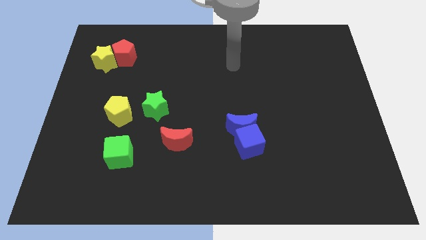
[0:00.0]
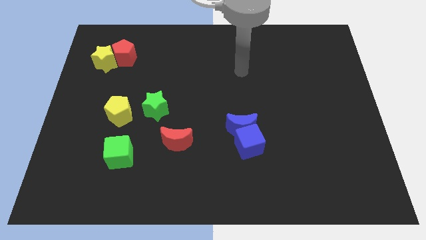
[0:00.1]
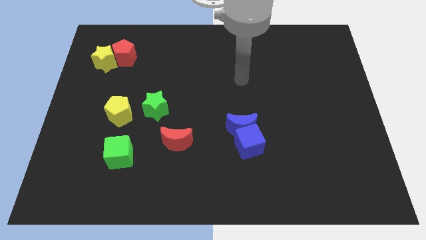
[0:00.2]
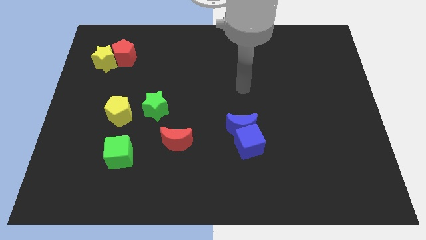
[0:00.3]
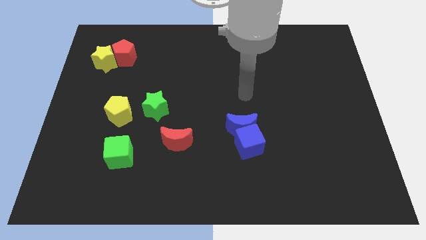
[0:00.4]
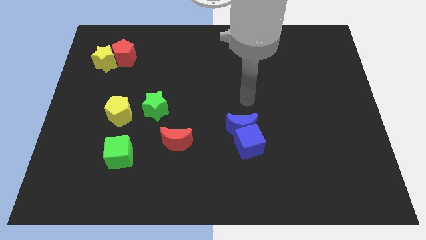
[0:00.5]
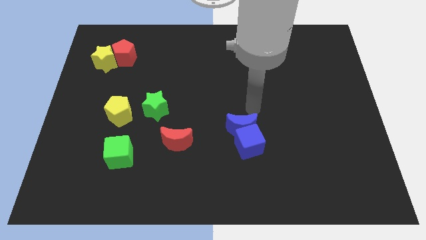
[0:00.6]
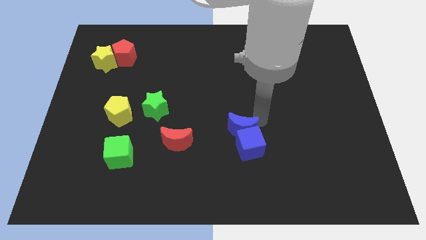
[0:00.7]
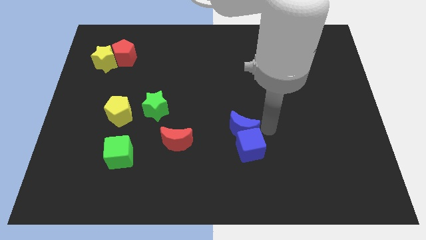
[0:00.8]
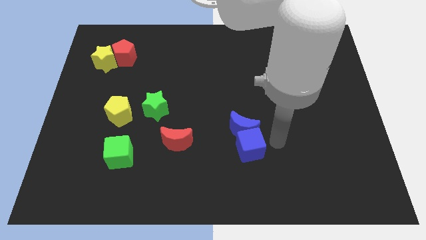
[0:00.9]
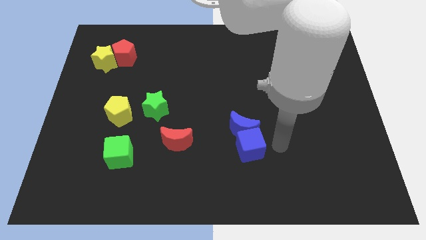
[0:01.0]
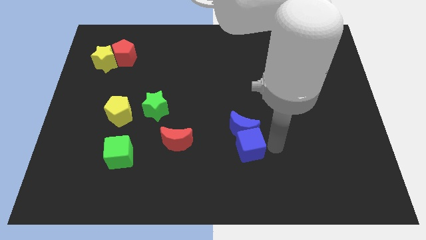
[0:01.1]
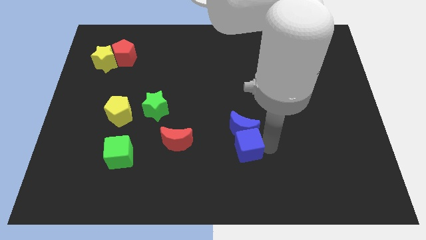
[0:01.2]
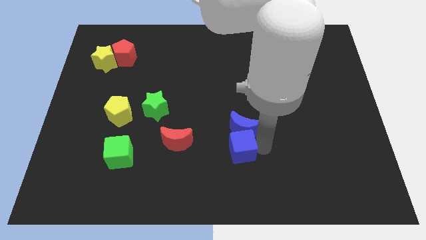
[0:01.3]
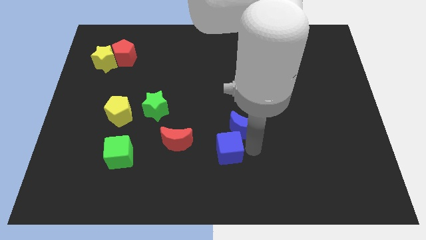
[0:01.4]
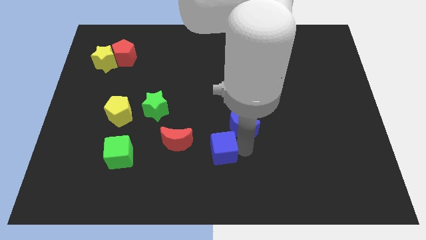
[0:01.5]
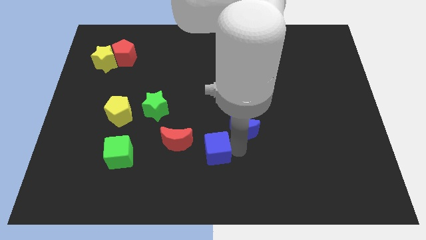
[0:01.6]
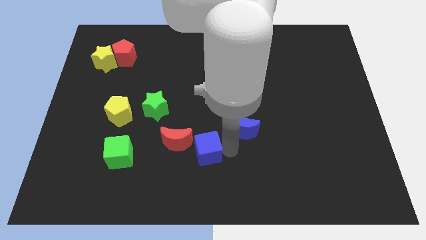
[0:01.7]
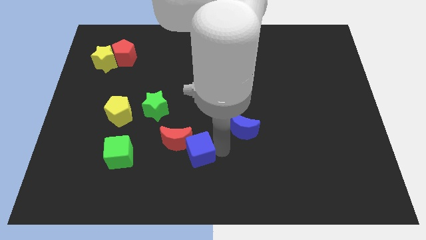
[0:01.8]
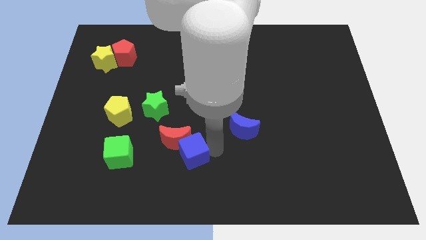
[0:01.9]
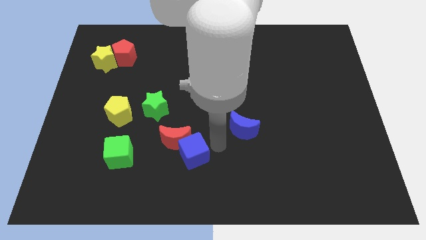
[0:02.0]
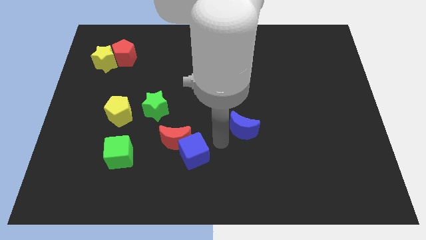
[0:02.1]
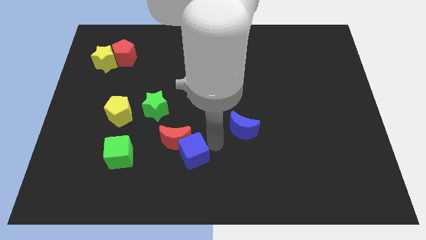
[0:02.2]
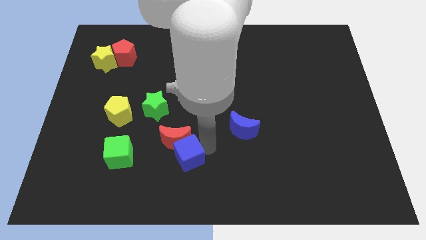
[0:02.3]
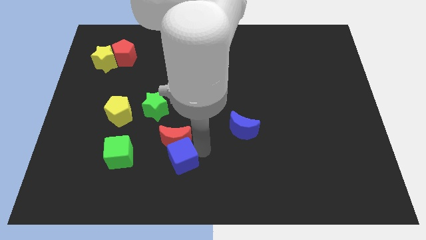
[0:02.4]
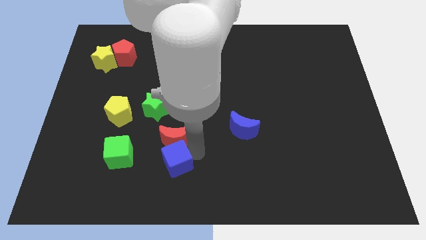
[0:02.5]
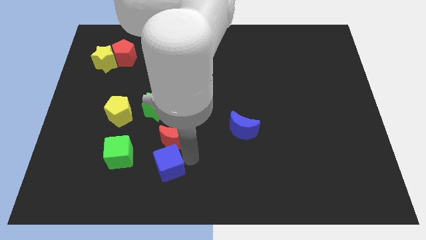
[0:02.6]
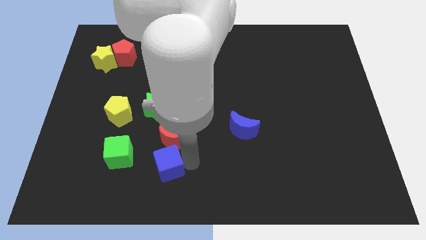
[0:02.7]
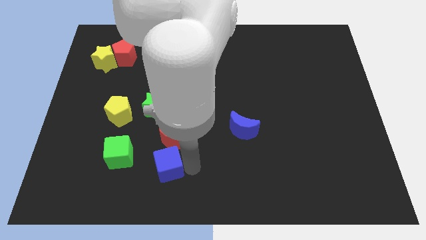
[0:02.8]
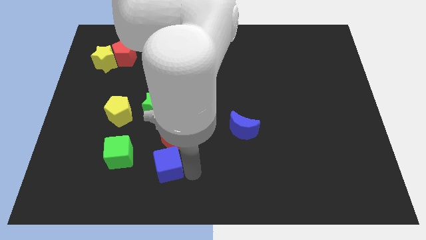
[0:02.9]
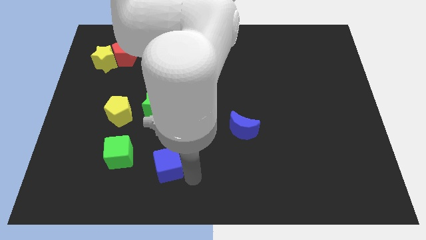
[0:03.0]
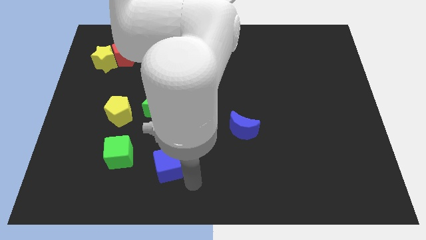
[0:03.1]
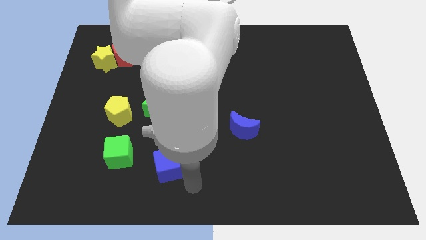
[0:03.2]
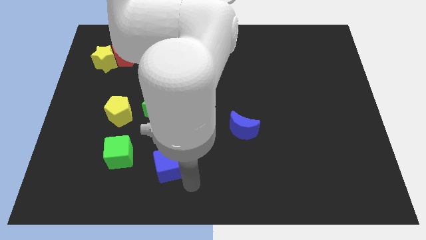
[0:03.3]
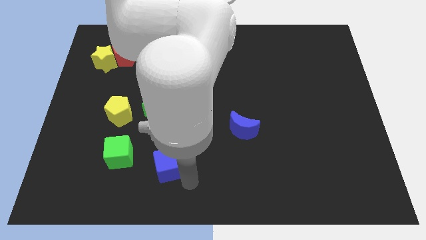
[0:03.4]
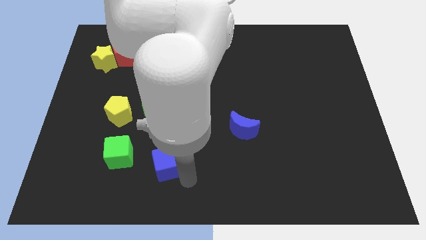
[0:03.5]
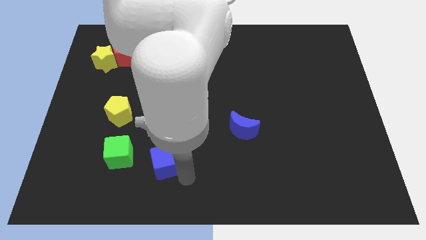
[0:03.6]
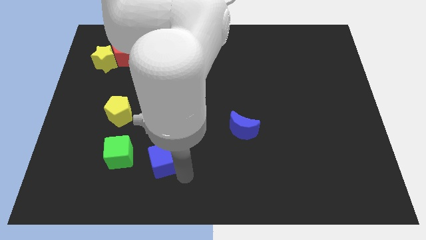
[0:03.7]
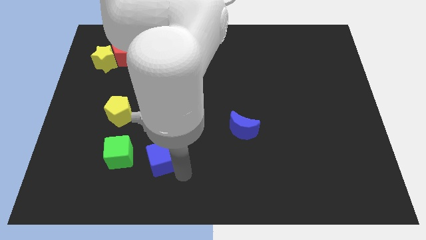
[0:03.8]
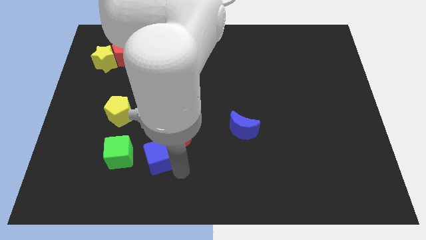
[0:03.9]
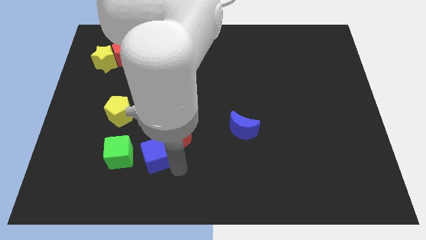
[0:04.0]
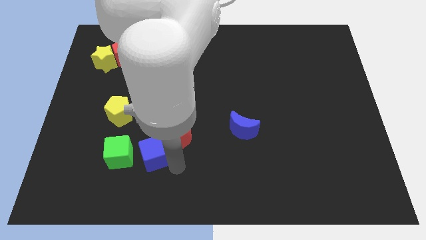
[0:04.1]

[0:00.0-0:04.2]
push the blue cube to the left

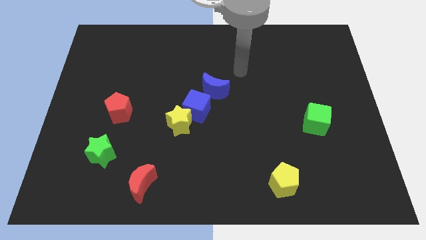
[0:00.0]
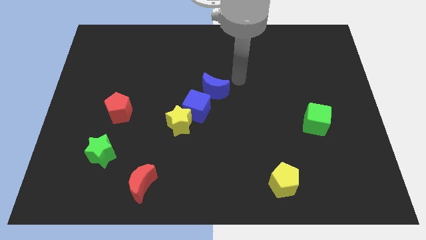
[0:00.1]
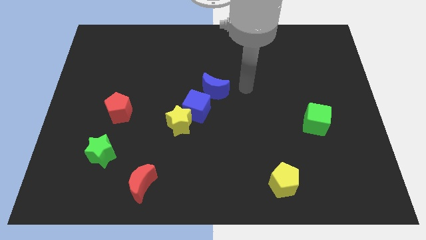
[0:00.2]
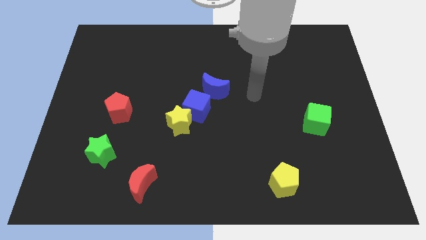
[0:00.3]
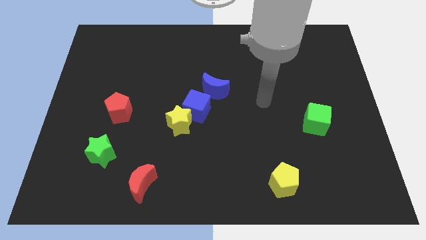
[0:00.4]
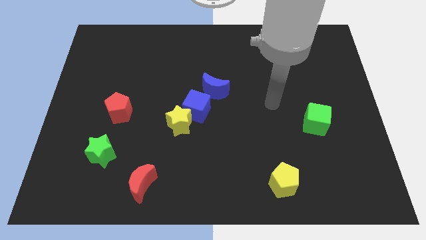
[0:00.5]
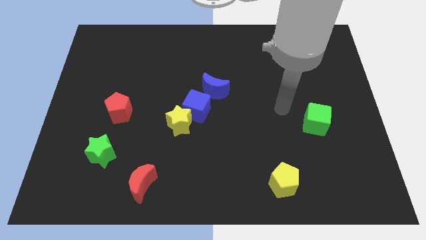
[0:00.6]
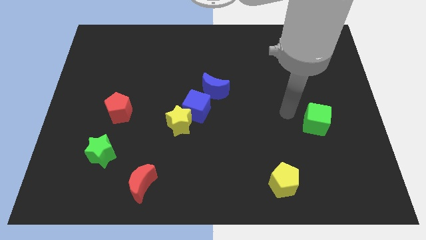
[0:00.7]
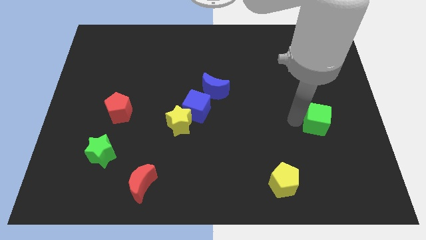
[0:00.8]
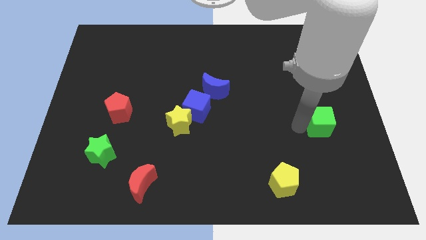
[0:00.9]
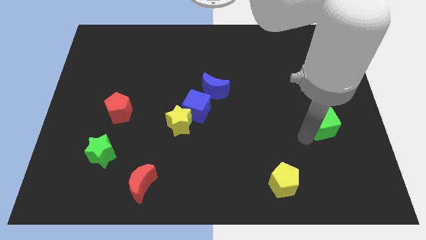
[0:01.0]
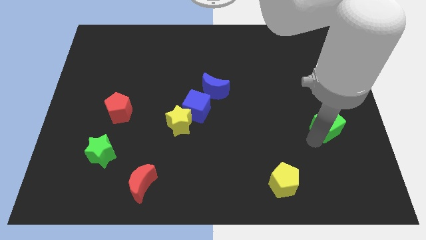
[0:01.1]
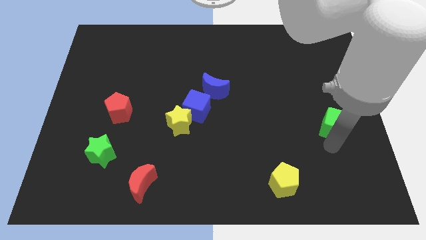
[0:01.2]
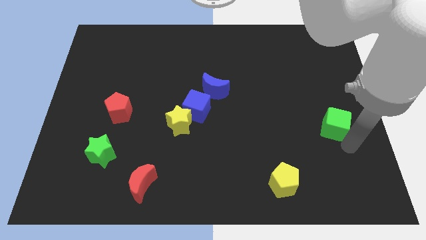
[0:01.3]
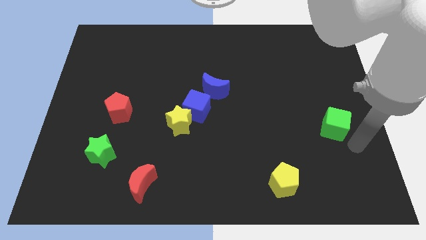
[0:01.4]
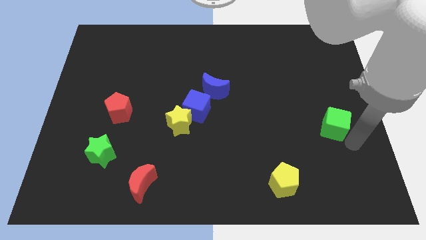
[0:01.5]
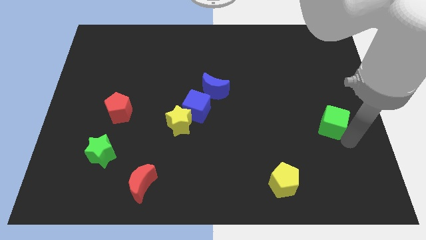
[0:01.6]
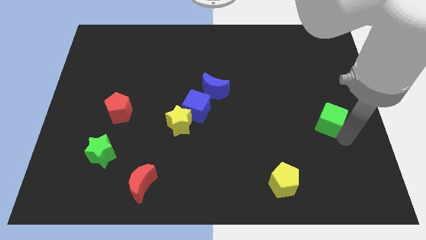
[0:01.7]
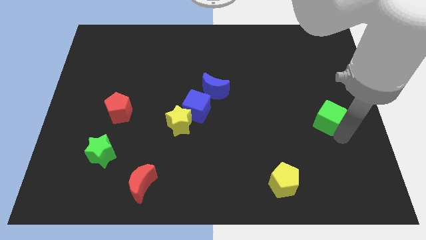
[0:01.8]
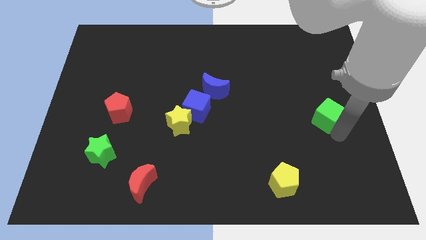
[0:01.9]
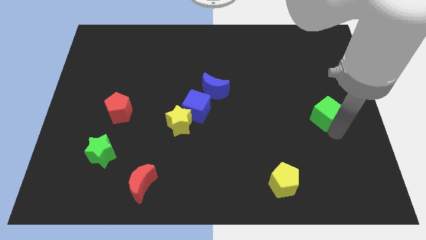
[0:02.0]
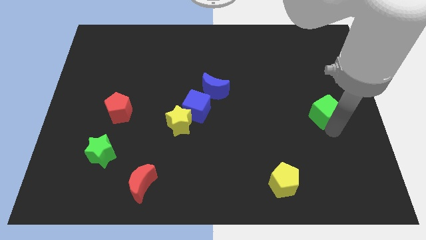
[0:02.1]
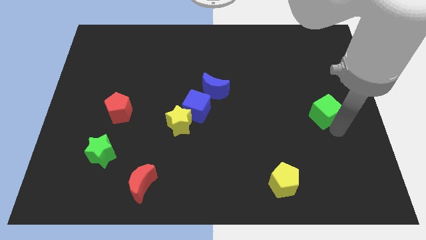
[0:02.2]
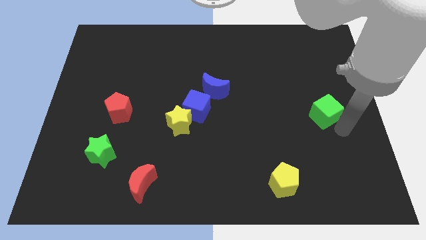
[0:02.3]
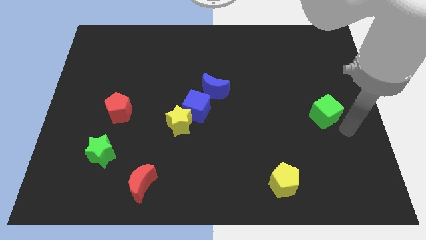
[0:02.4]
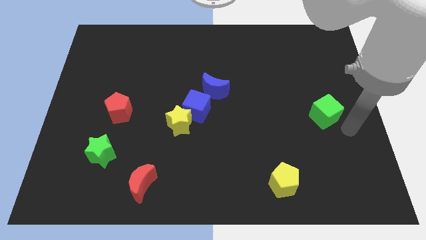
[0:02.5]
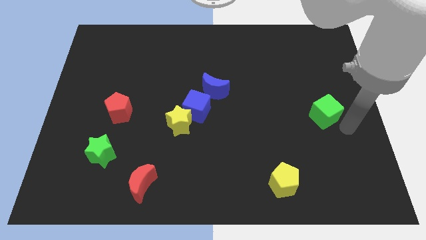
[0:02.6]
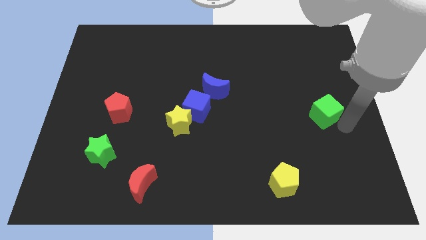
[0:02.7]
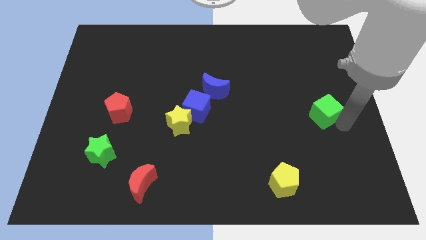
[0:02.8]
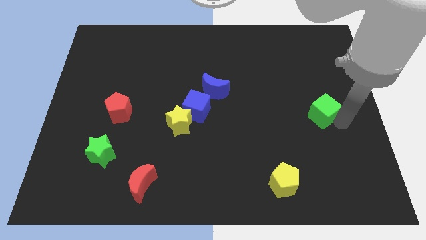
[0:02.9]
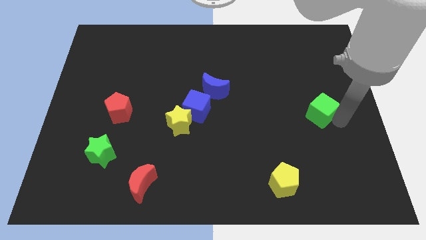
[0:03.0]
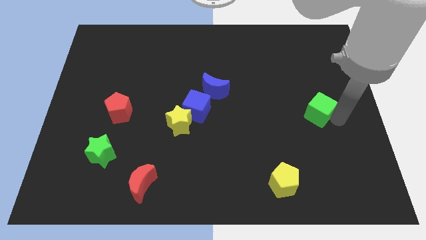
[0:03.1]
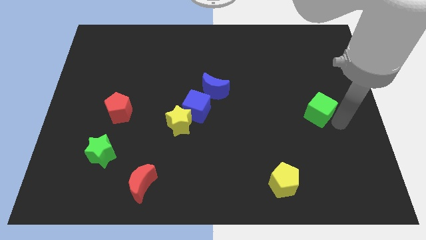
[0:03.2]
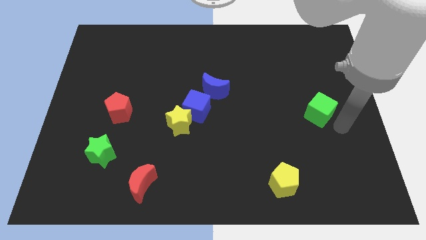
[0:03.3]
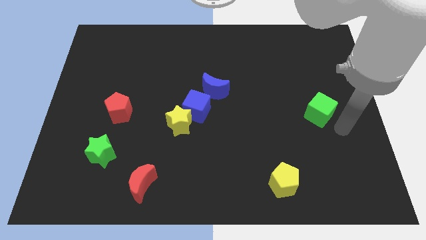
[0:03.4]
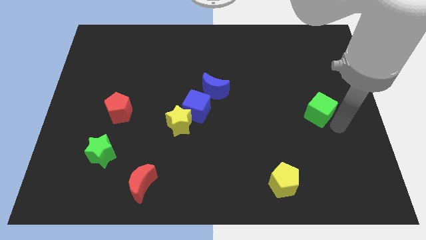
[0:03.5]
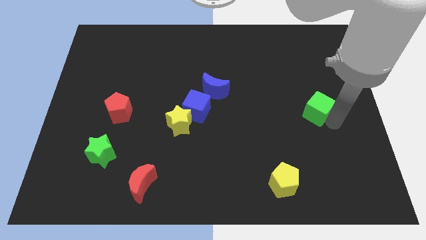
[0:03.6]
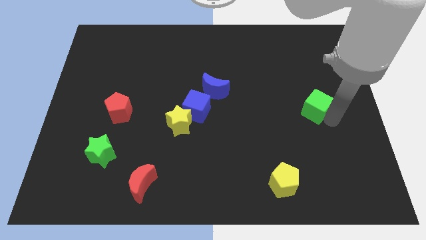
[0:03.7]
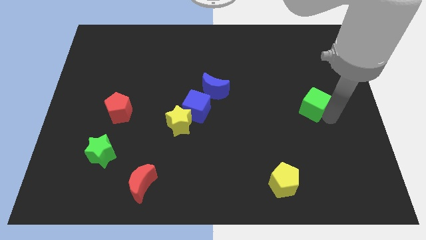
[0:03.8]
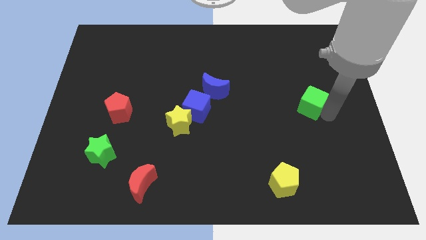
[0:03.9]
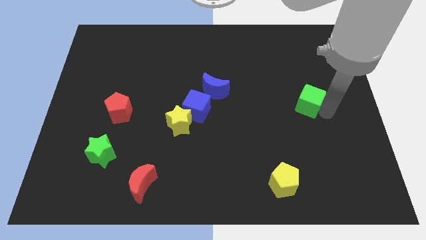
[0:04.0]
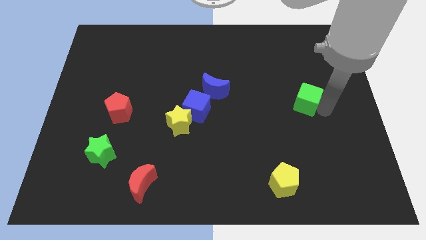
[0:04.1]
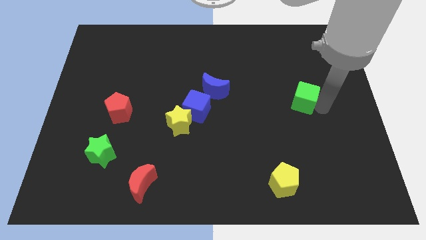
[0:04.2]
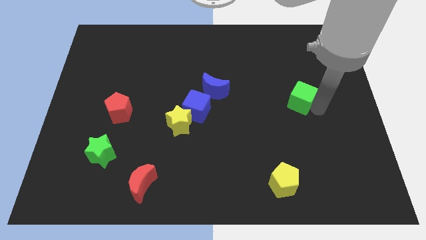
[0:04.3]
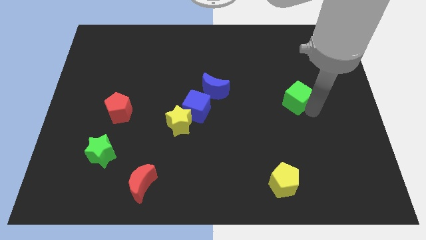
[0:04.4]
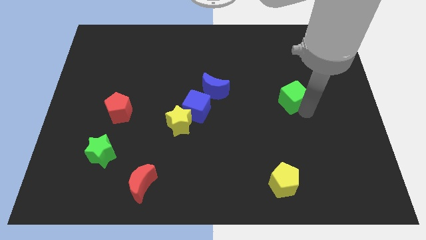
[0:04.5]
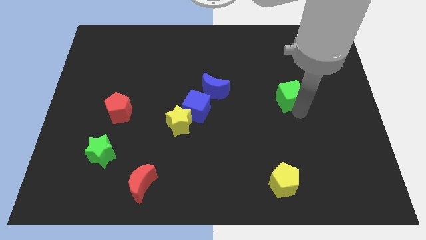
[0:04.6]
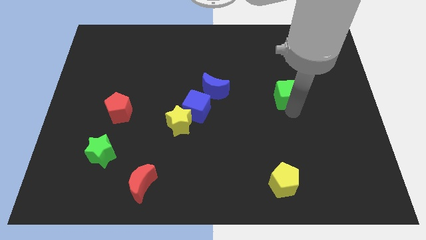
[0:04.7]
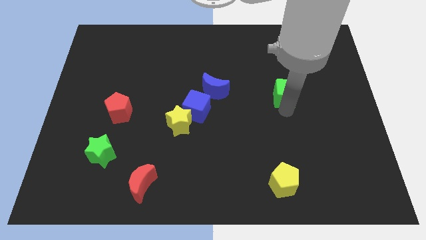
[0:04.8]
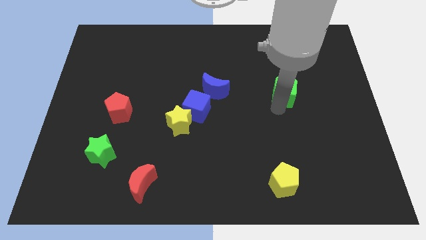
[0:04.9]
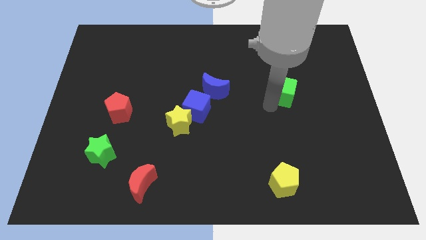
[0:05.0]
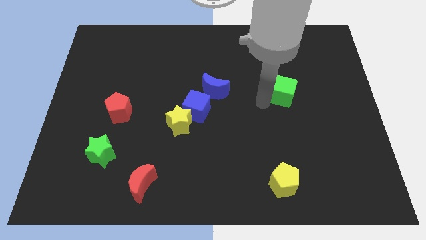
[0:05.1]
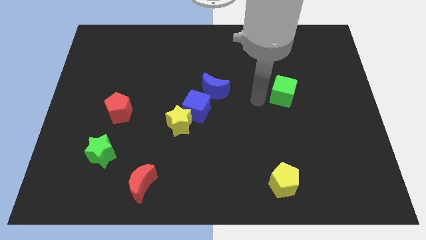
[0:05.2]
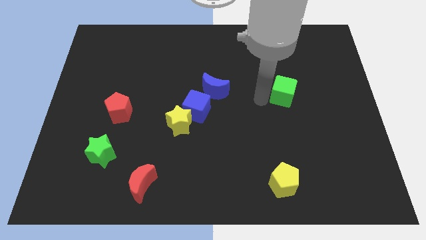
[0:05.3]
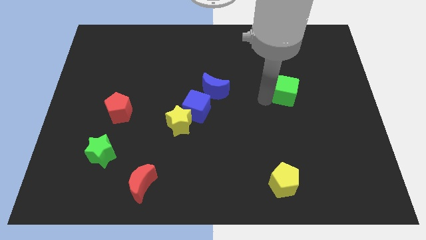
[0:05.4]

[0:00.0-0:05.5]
push the green cube somewhat up
